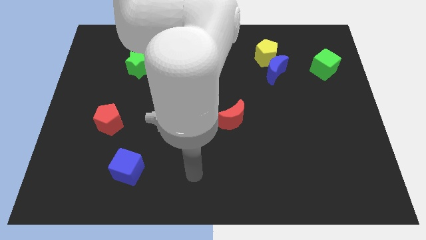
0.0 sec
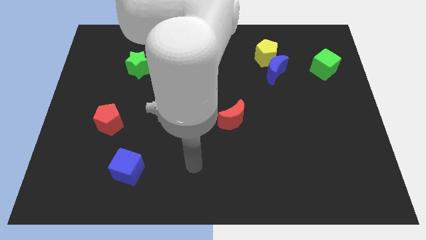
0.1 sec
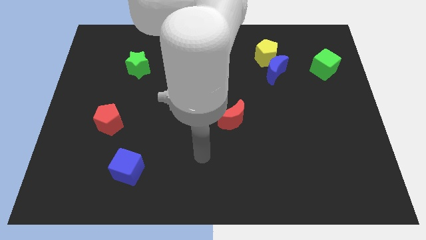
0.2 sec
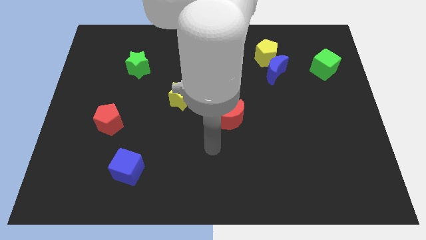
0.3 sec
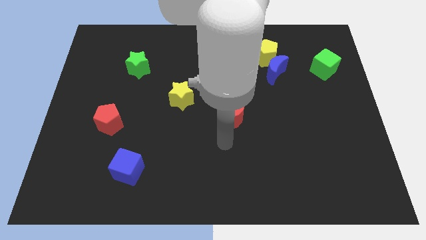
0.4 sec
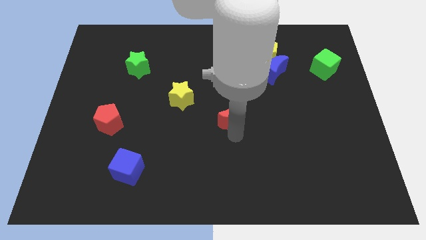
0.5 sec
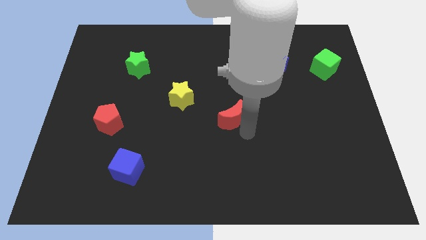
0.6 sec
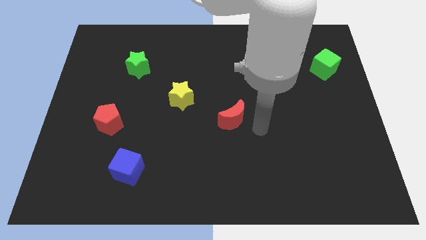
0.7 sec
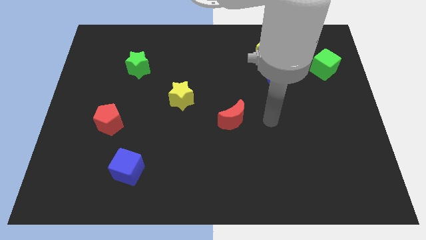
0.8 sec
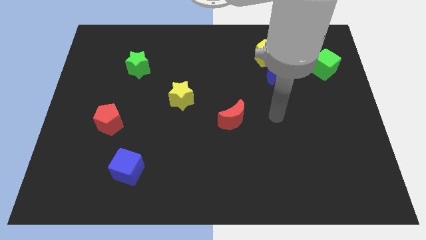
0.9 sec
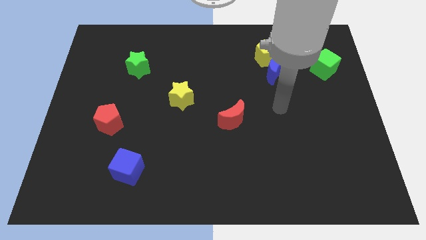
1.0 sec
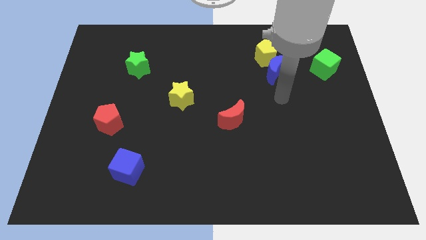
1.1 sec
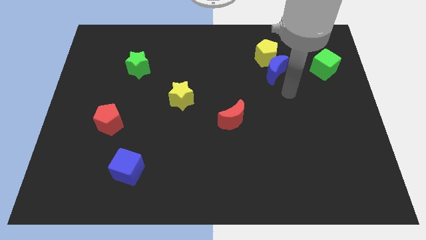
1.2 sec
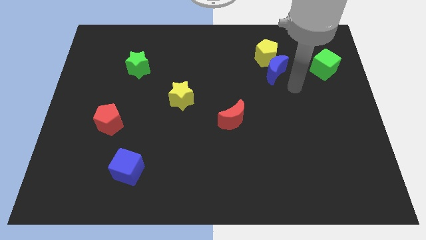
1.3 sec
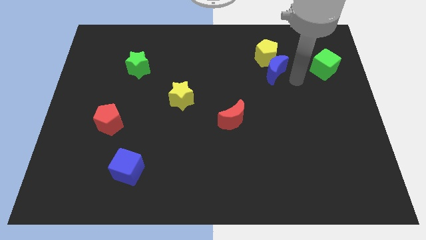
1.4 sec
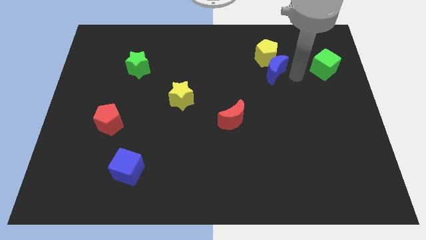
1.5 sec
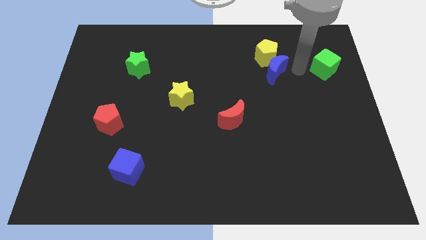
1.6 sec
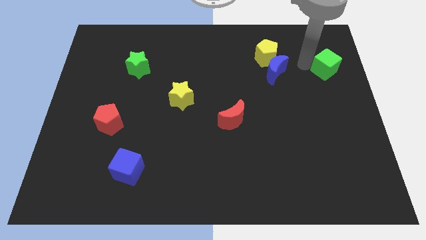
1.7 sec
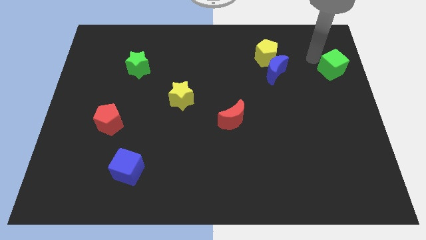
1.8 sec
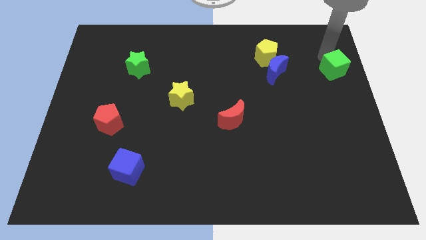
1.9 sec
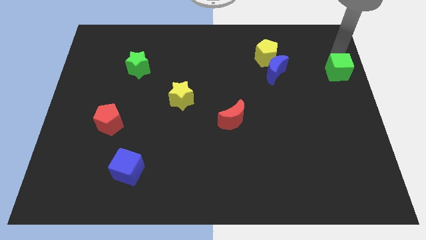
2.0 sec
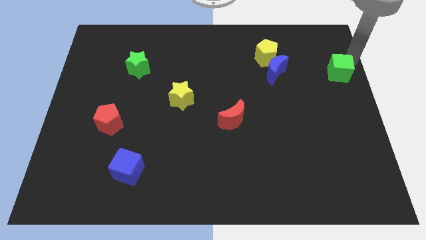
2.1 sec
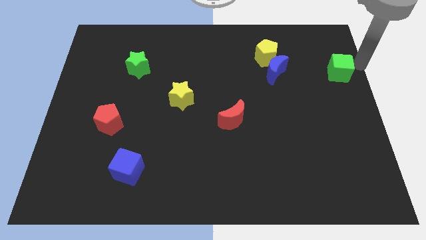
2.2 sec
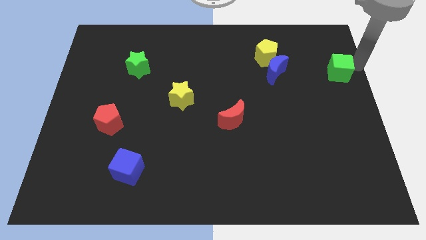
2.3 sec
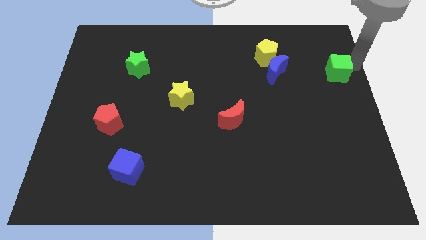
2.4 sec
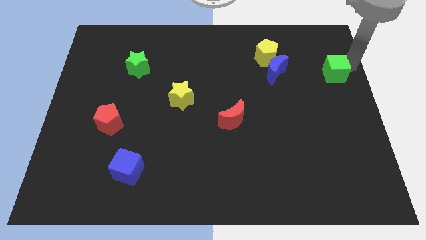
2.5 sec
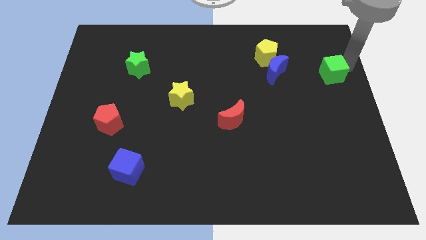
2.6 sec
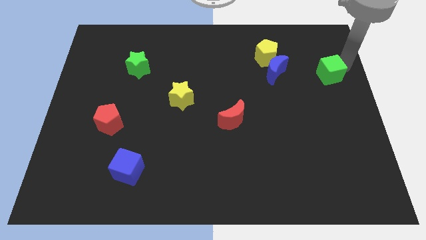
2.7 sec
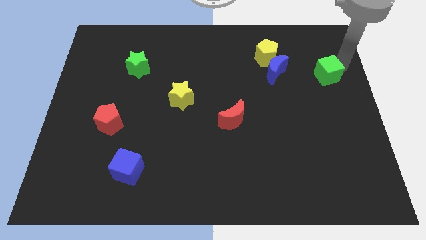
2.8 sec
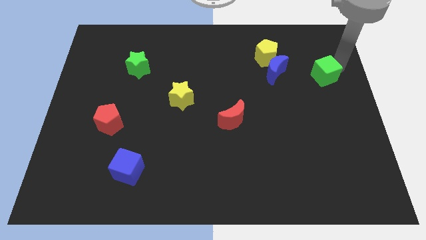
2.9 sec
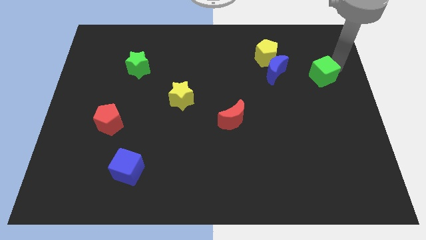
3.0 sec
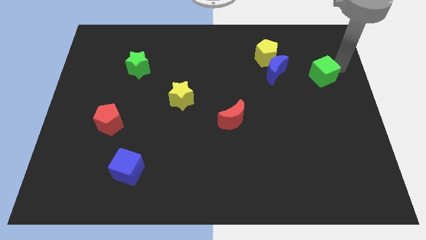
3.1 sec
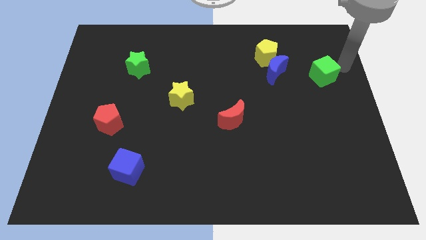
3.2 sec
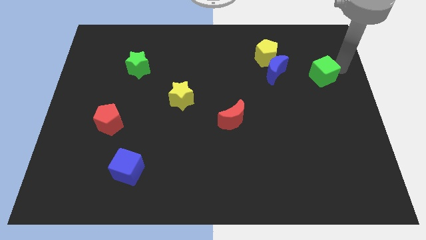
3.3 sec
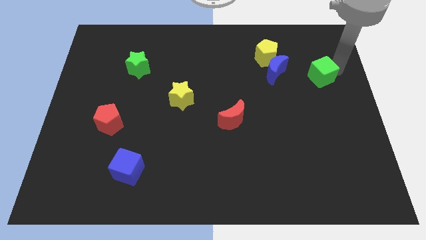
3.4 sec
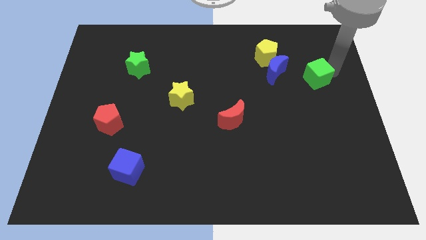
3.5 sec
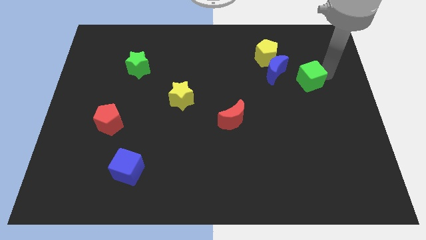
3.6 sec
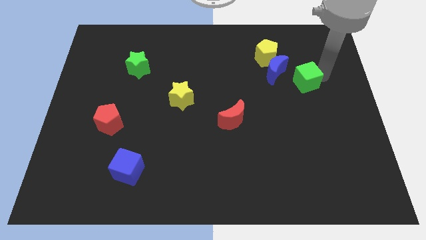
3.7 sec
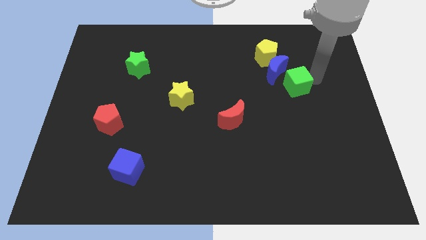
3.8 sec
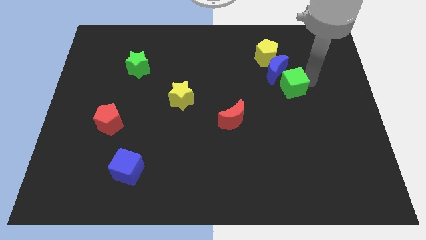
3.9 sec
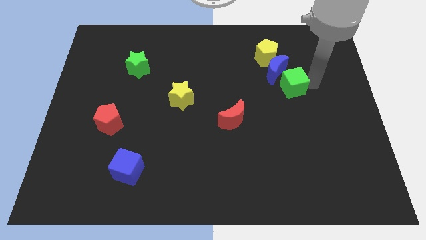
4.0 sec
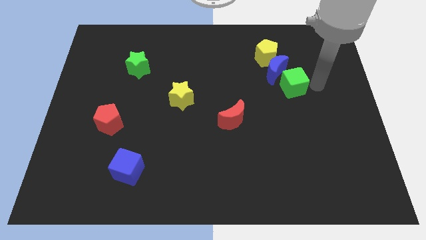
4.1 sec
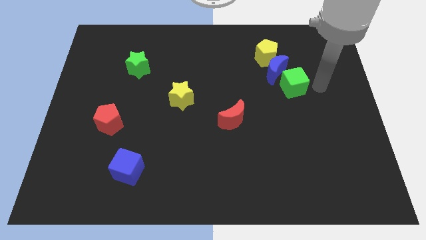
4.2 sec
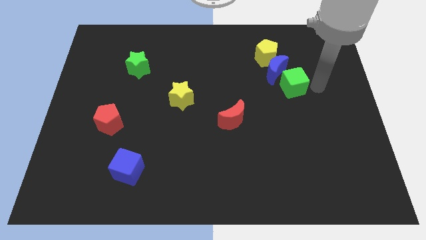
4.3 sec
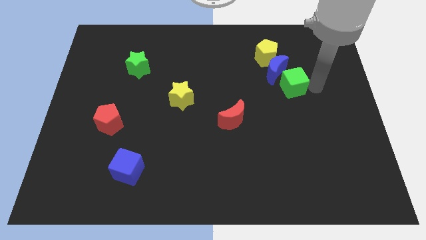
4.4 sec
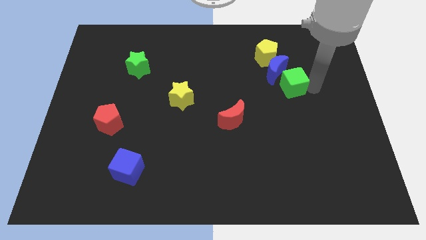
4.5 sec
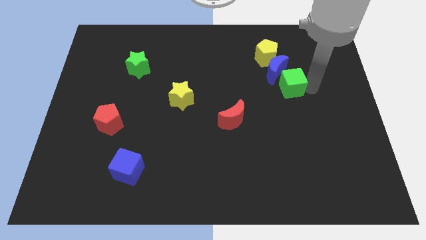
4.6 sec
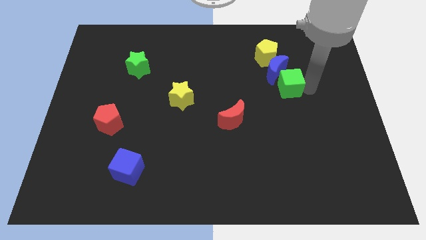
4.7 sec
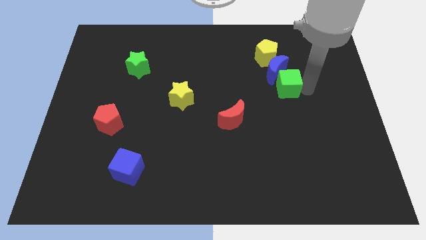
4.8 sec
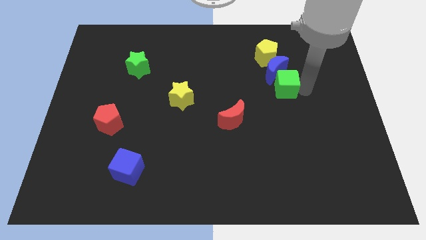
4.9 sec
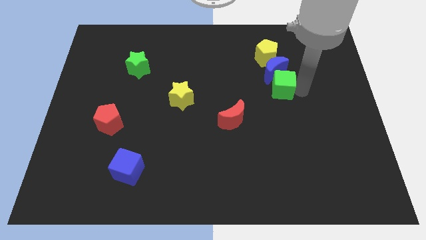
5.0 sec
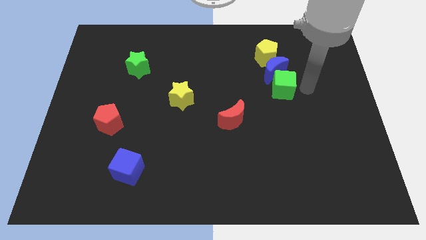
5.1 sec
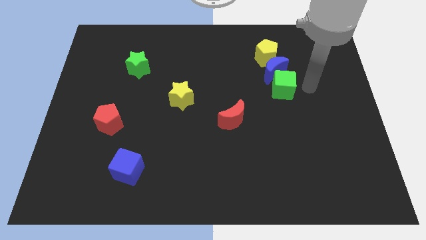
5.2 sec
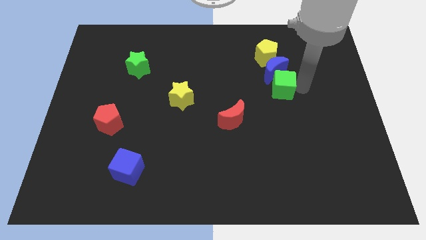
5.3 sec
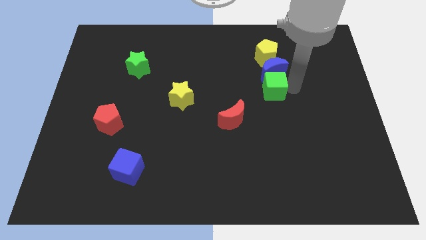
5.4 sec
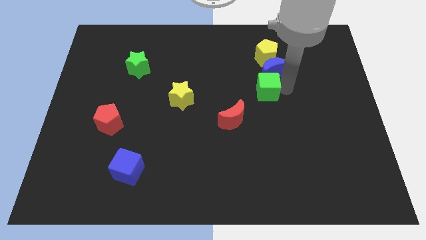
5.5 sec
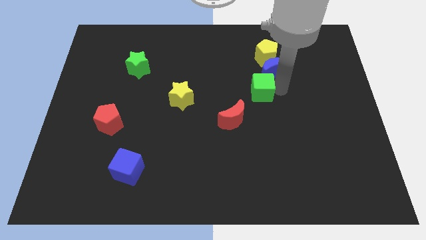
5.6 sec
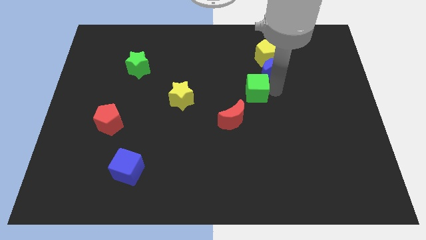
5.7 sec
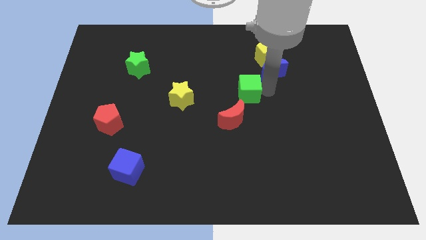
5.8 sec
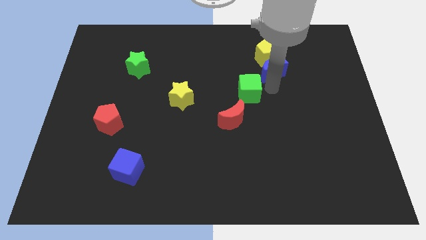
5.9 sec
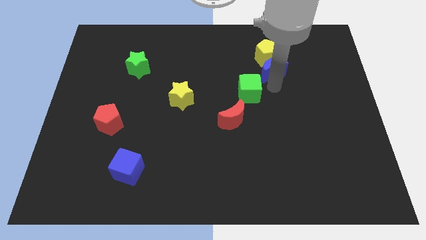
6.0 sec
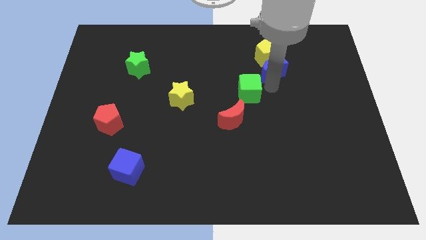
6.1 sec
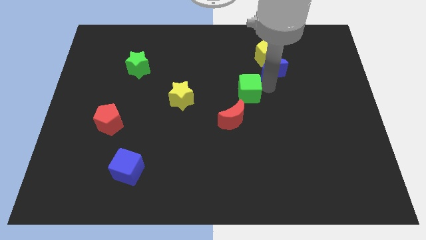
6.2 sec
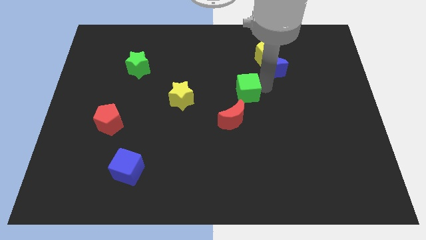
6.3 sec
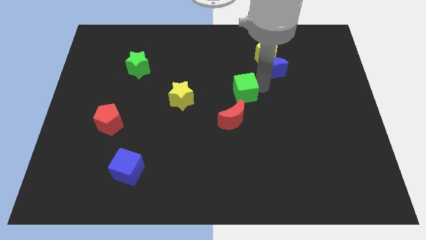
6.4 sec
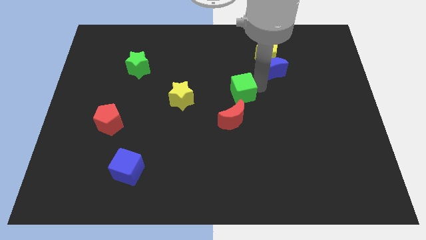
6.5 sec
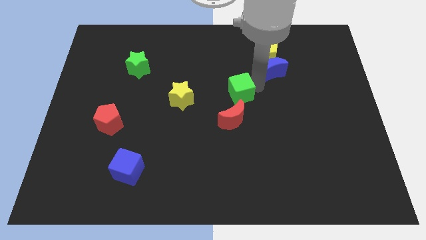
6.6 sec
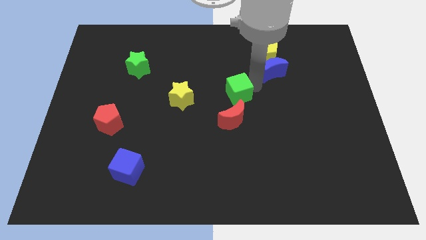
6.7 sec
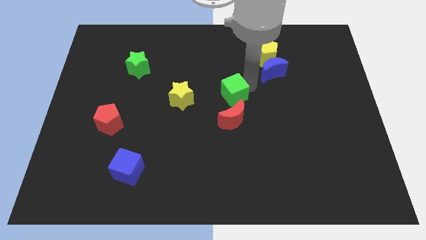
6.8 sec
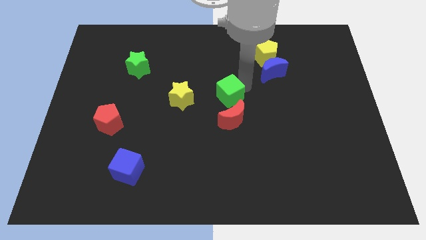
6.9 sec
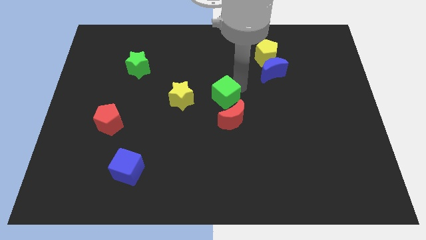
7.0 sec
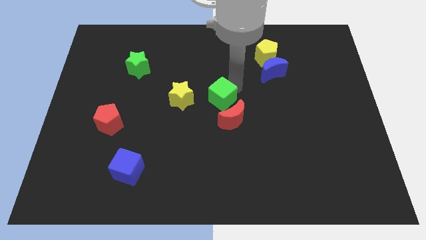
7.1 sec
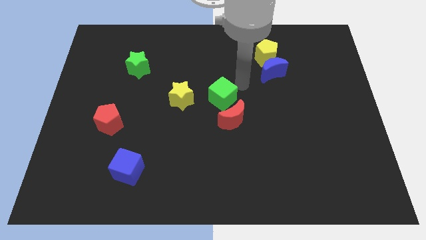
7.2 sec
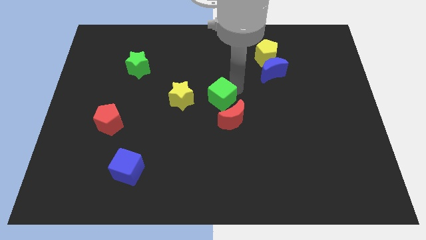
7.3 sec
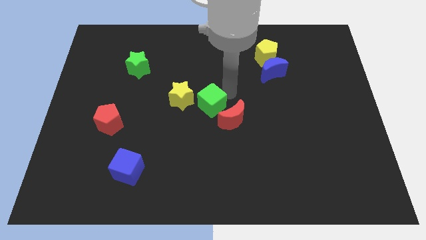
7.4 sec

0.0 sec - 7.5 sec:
slide the green cube to the left side of the red moon
